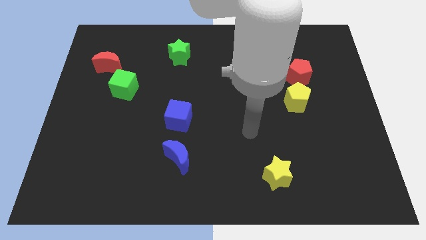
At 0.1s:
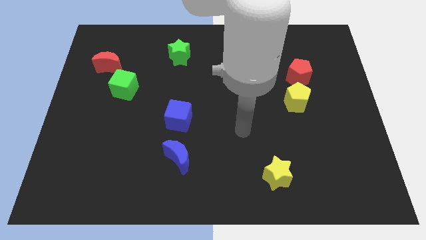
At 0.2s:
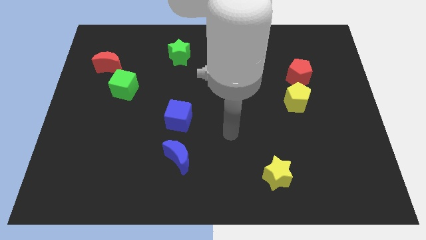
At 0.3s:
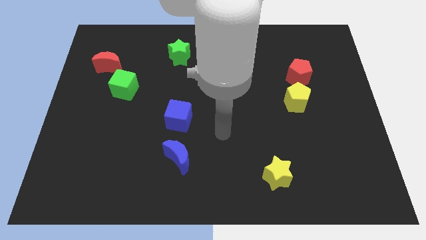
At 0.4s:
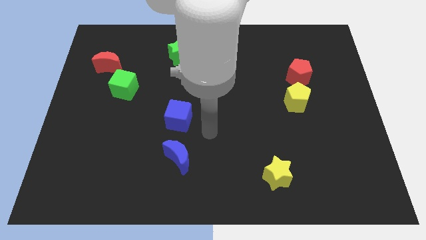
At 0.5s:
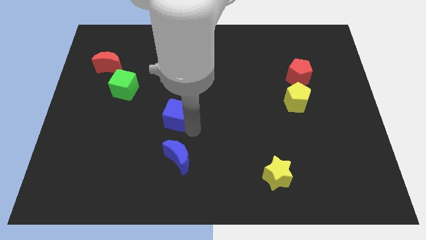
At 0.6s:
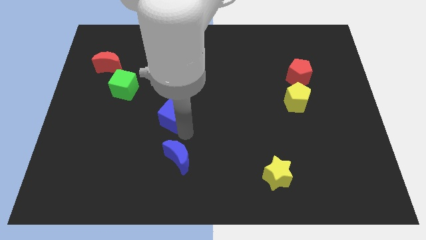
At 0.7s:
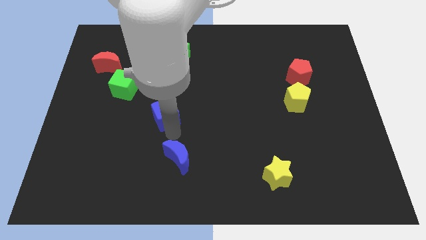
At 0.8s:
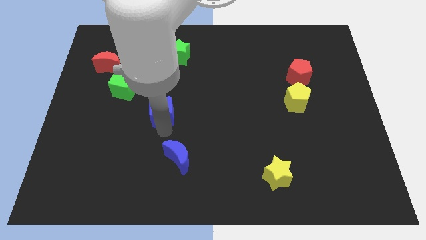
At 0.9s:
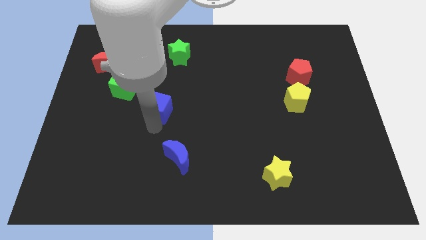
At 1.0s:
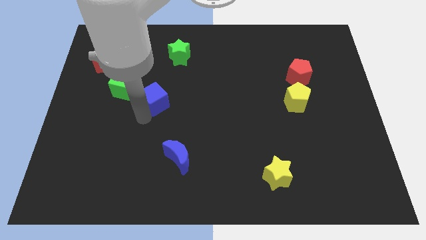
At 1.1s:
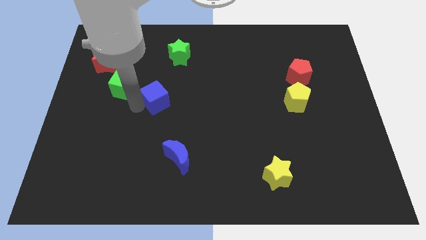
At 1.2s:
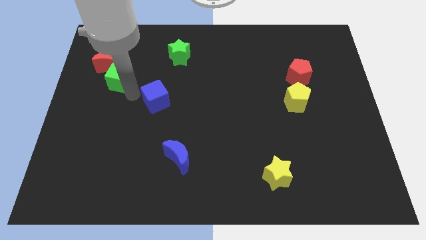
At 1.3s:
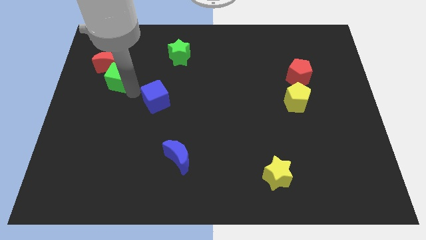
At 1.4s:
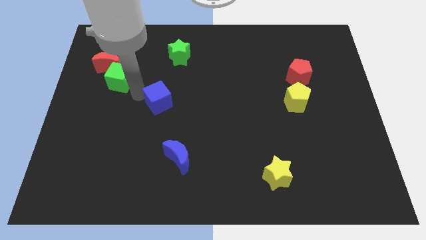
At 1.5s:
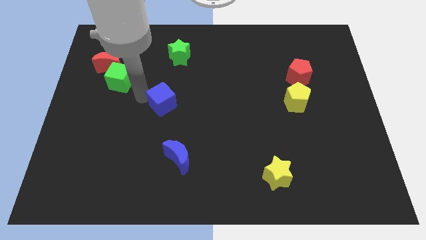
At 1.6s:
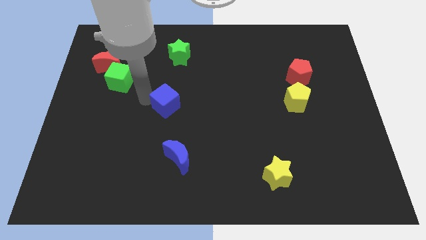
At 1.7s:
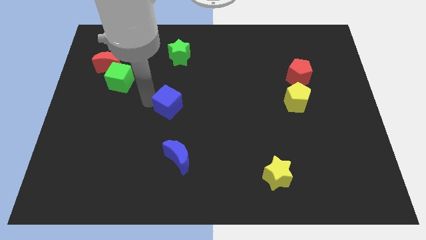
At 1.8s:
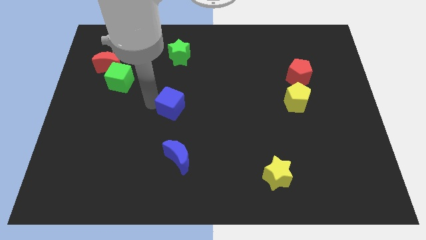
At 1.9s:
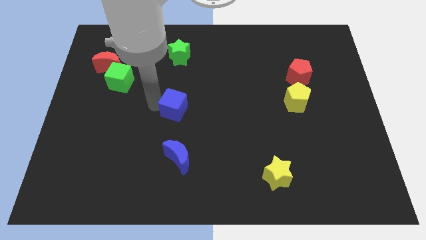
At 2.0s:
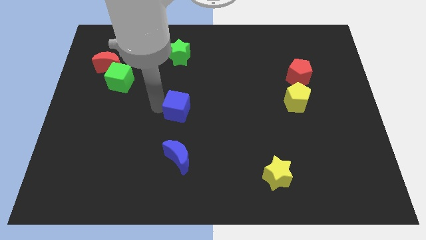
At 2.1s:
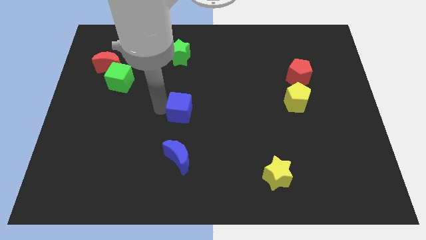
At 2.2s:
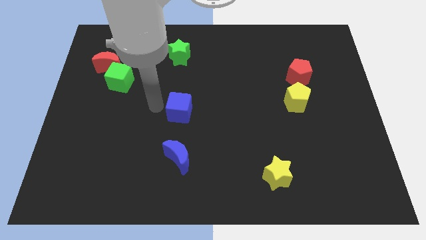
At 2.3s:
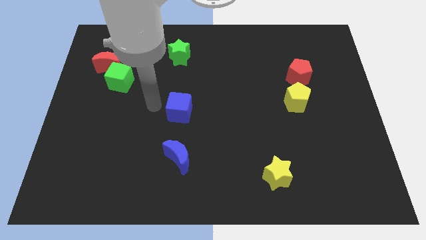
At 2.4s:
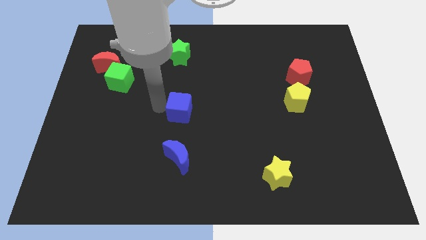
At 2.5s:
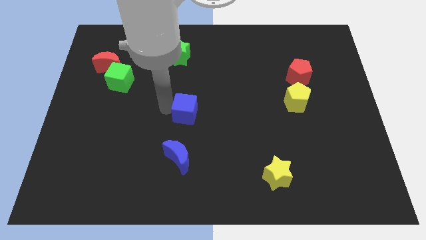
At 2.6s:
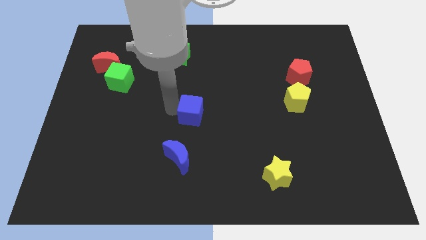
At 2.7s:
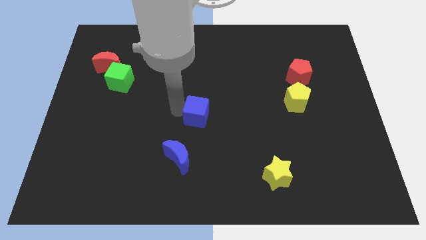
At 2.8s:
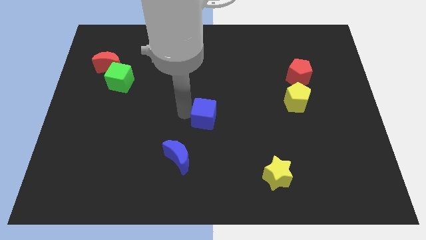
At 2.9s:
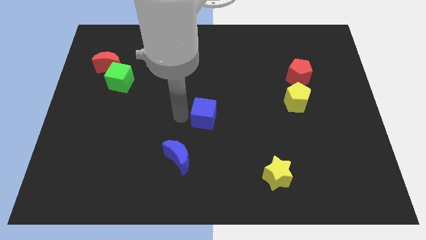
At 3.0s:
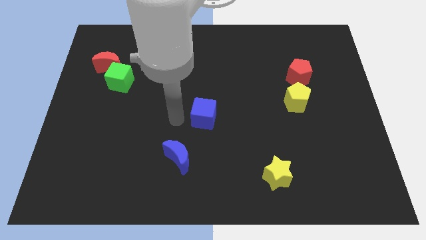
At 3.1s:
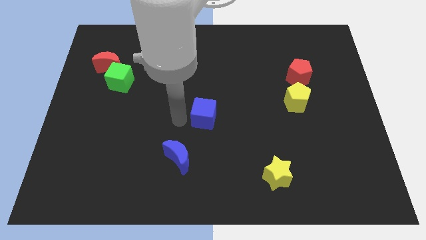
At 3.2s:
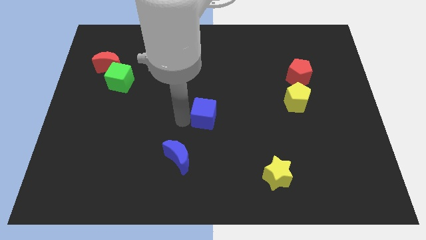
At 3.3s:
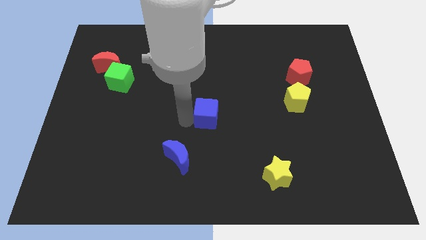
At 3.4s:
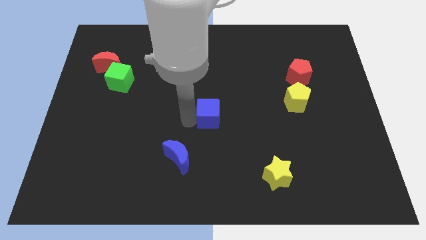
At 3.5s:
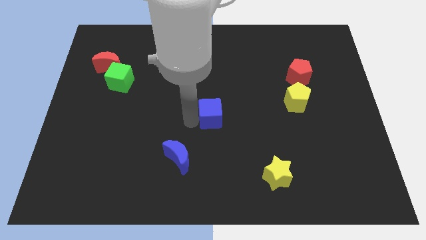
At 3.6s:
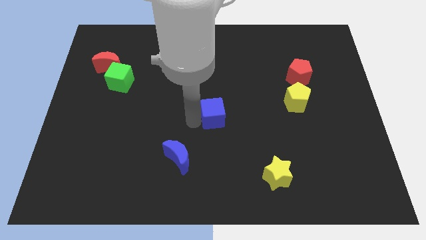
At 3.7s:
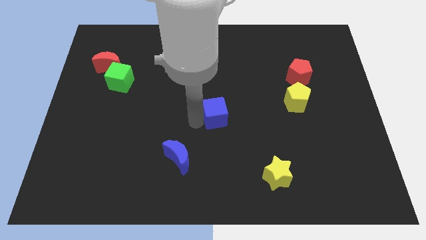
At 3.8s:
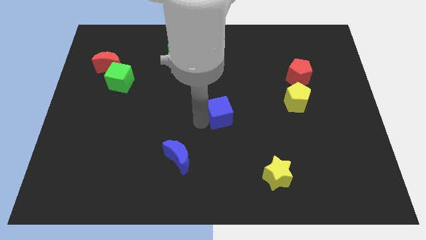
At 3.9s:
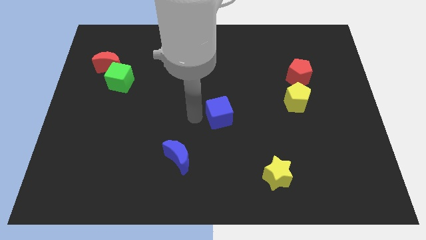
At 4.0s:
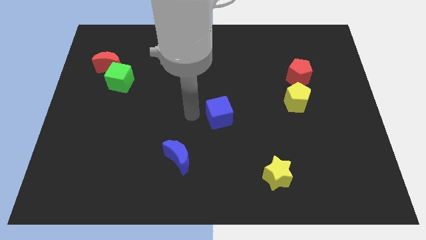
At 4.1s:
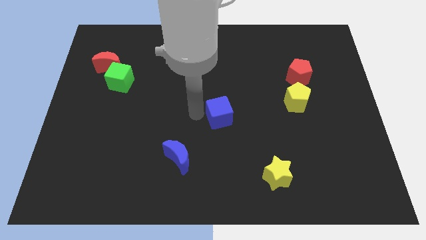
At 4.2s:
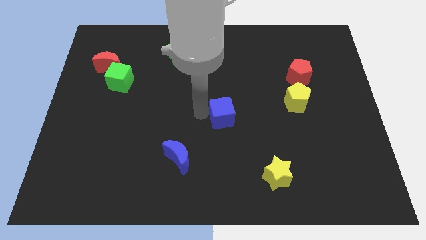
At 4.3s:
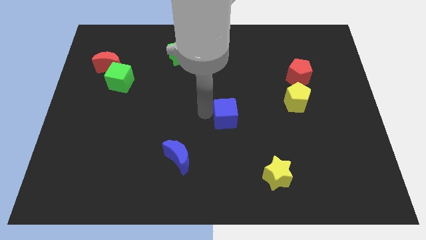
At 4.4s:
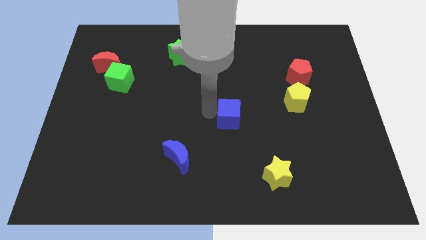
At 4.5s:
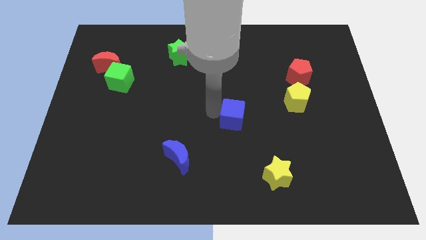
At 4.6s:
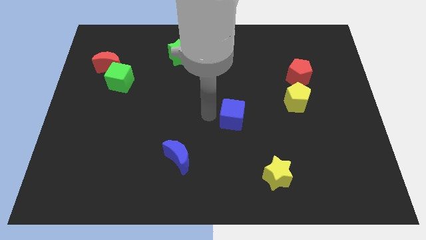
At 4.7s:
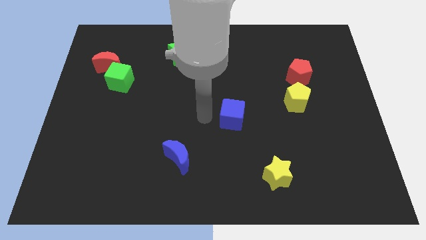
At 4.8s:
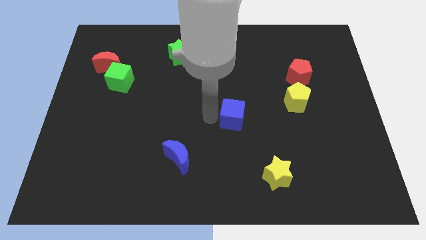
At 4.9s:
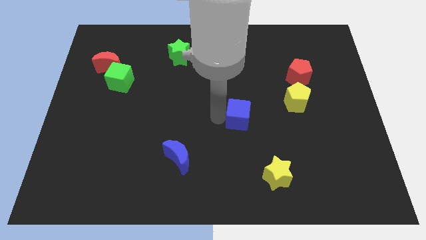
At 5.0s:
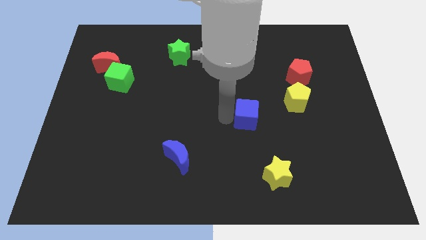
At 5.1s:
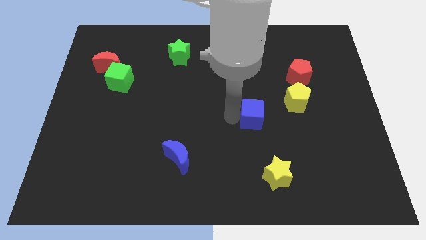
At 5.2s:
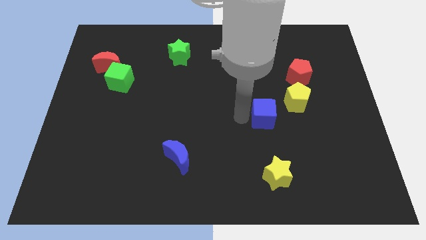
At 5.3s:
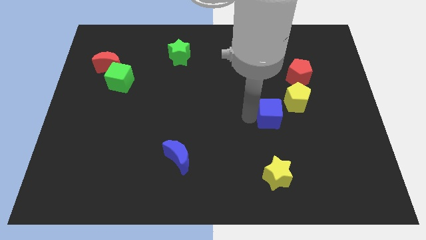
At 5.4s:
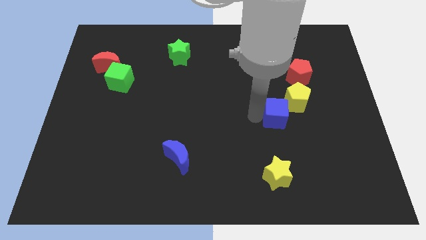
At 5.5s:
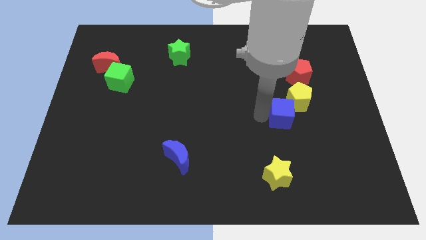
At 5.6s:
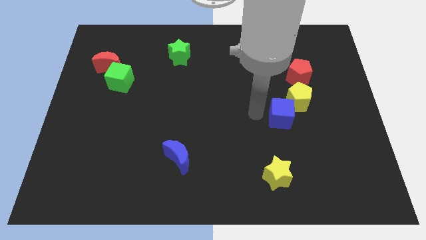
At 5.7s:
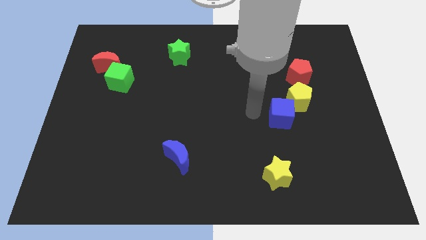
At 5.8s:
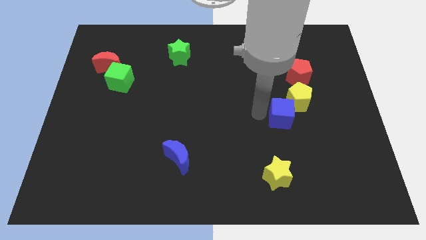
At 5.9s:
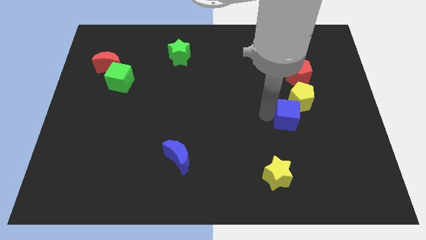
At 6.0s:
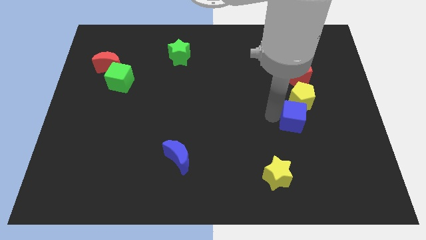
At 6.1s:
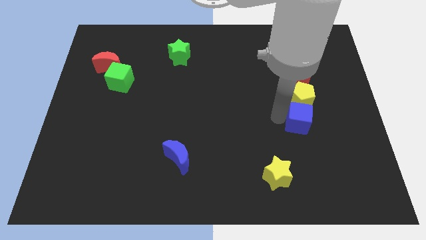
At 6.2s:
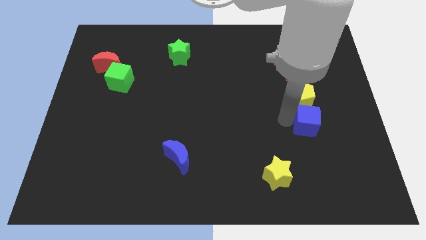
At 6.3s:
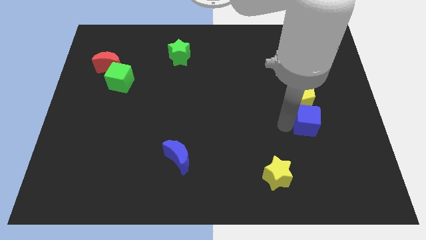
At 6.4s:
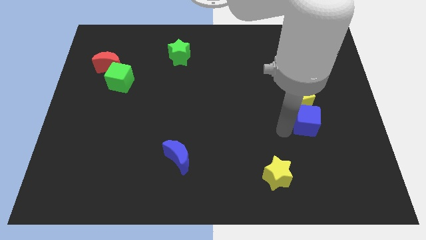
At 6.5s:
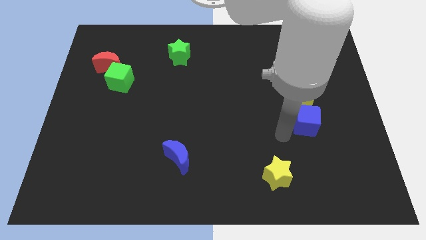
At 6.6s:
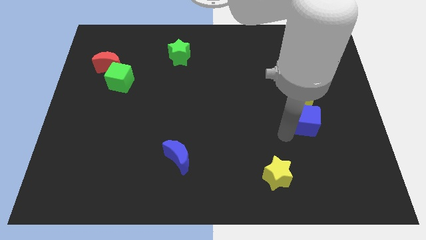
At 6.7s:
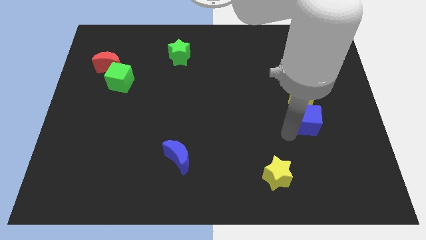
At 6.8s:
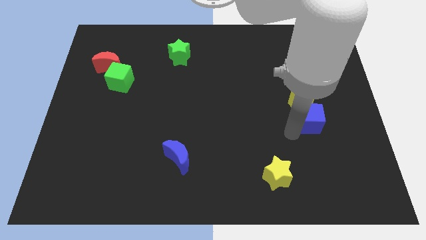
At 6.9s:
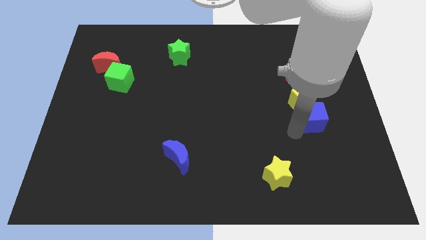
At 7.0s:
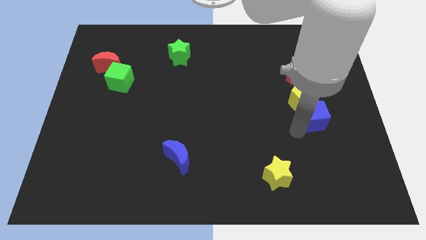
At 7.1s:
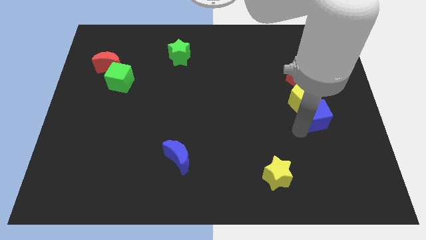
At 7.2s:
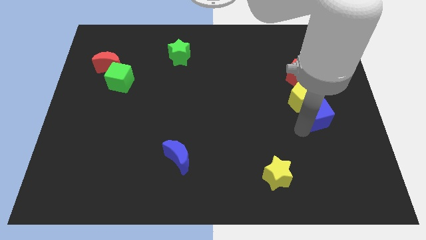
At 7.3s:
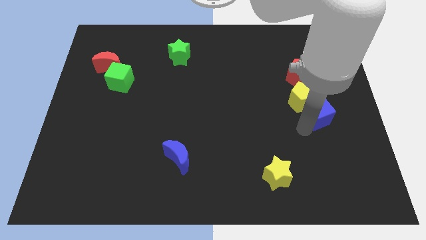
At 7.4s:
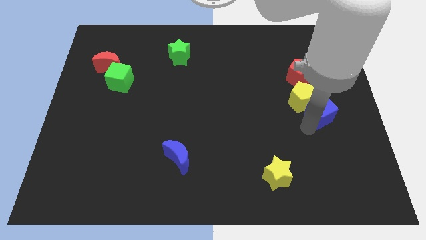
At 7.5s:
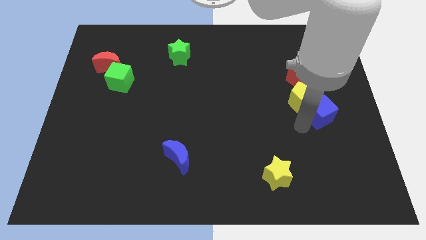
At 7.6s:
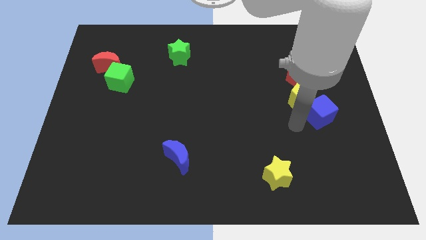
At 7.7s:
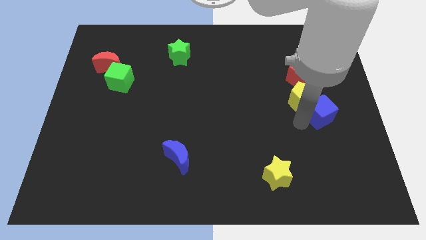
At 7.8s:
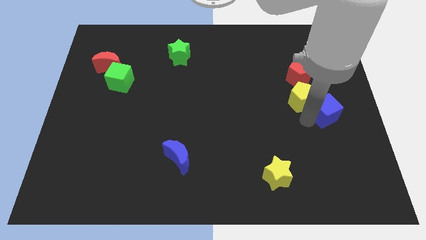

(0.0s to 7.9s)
push the blue cube to the center right
